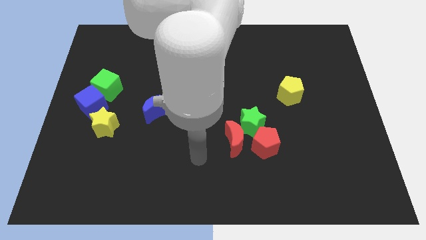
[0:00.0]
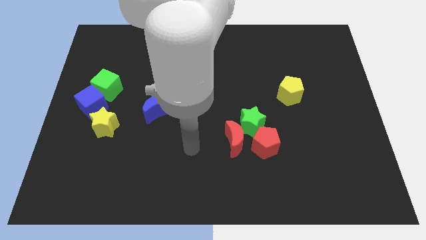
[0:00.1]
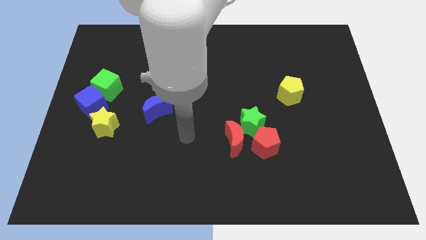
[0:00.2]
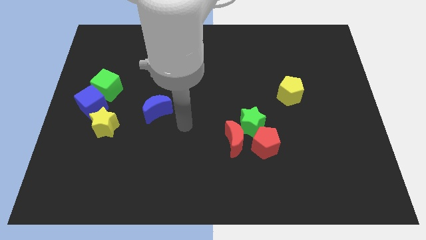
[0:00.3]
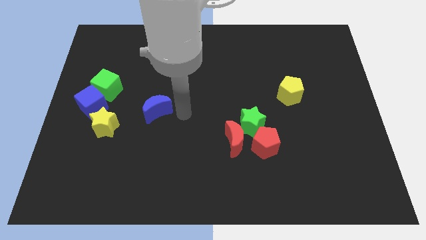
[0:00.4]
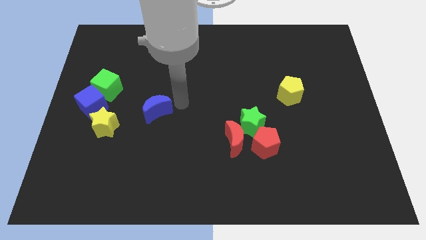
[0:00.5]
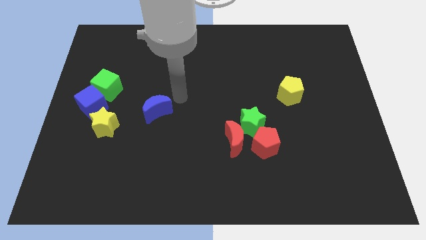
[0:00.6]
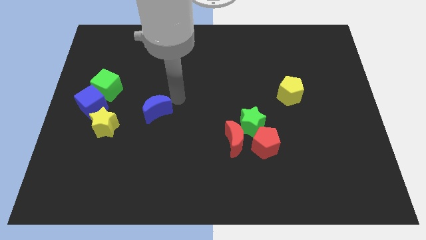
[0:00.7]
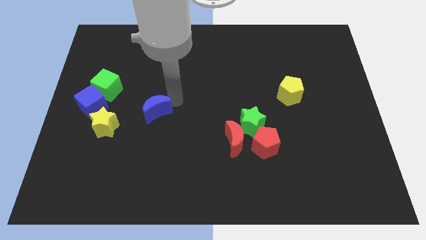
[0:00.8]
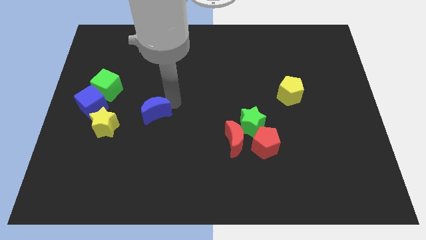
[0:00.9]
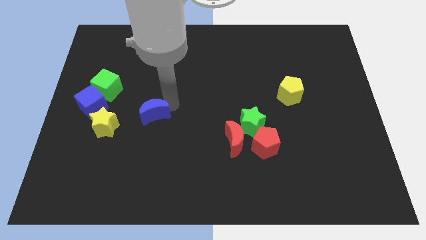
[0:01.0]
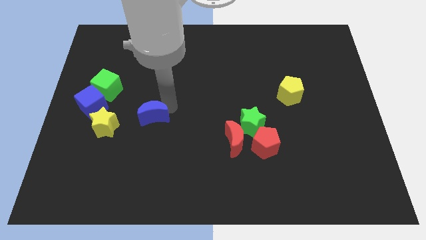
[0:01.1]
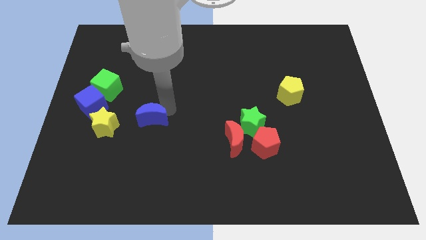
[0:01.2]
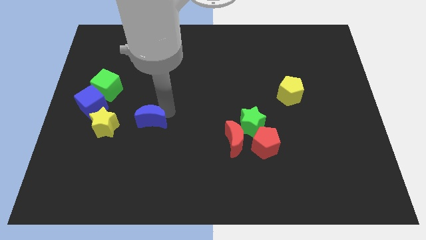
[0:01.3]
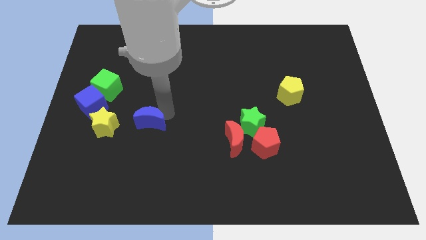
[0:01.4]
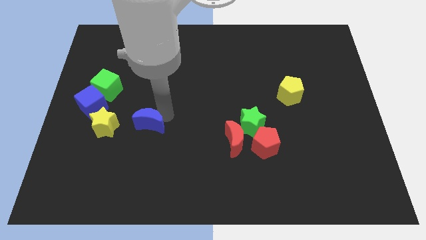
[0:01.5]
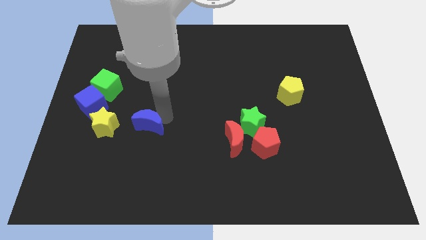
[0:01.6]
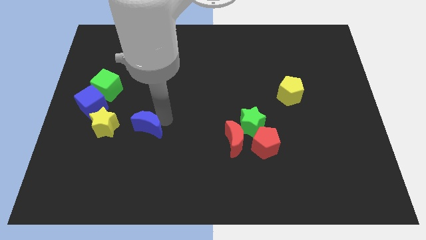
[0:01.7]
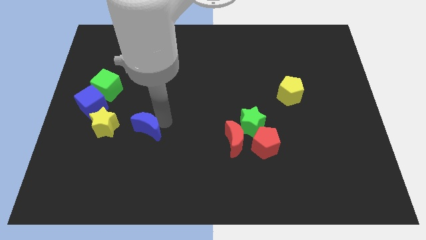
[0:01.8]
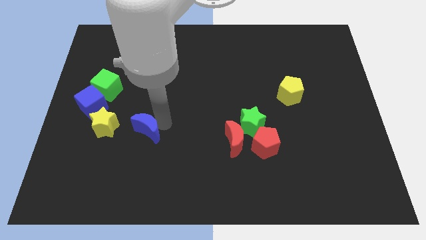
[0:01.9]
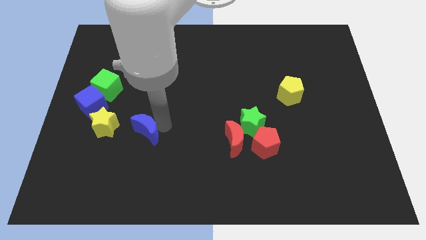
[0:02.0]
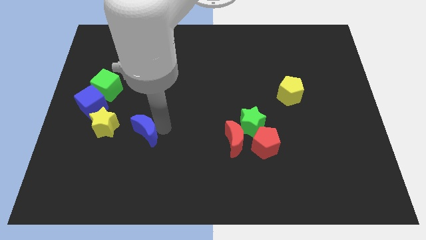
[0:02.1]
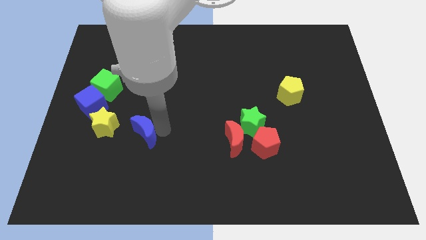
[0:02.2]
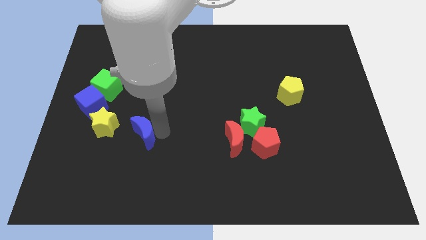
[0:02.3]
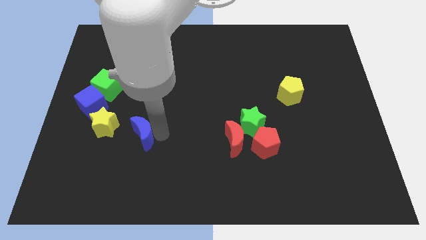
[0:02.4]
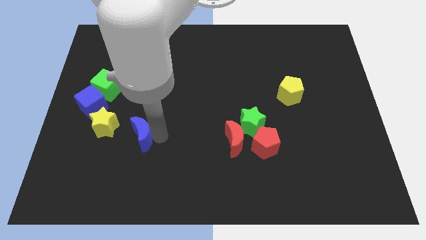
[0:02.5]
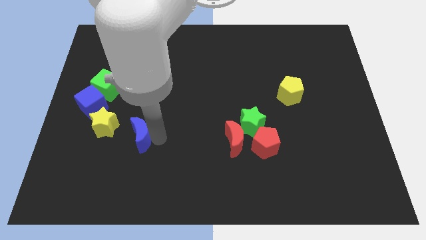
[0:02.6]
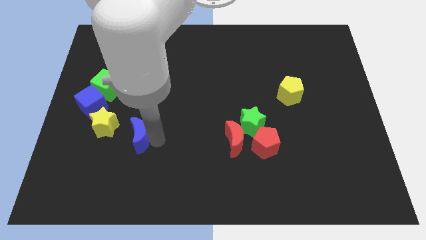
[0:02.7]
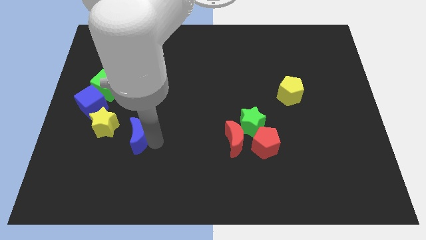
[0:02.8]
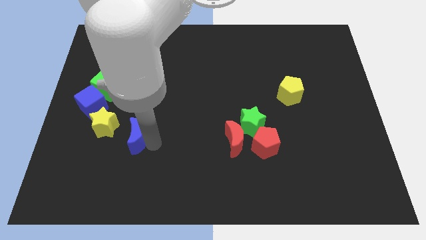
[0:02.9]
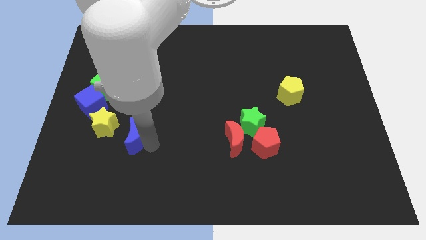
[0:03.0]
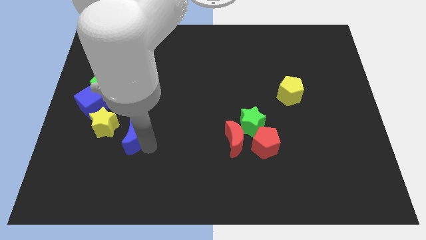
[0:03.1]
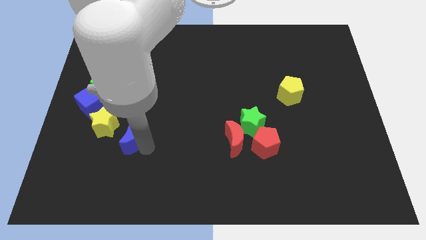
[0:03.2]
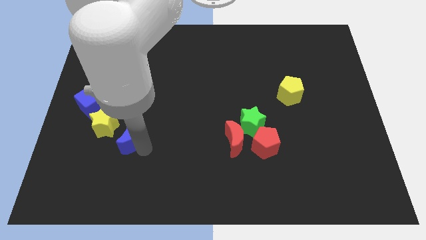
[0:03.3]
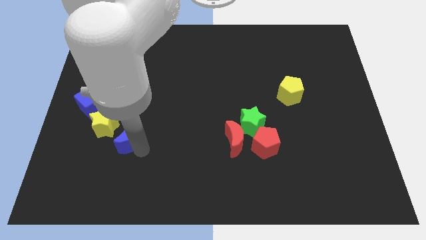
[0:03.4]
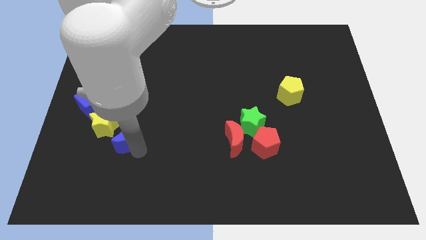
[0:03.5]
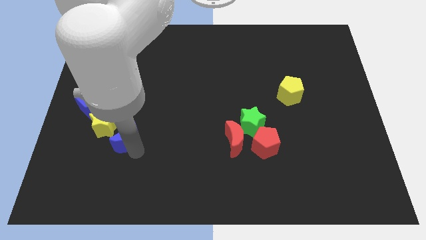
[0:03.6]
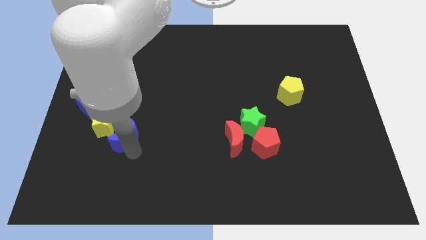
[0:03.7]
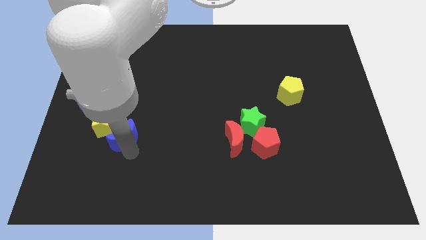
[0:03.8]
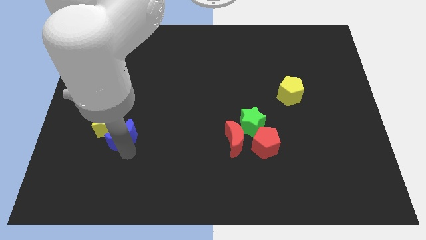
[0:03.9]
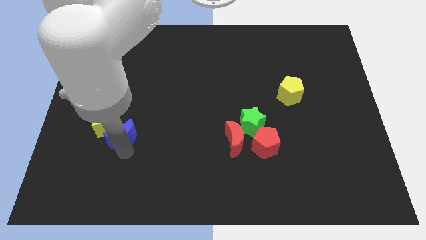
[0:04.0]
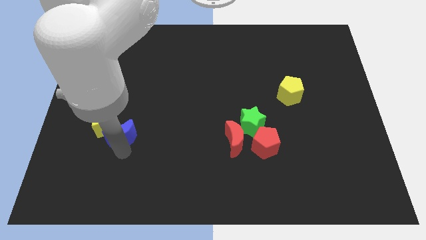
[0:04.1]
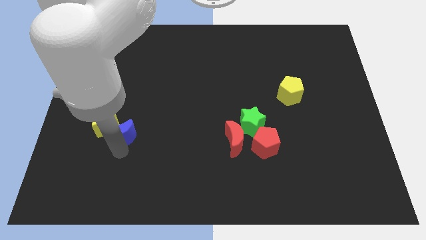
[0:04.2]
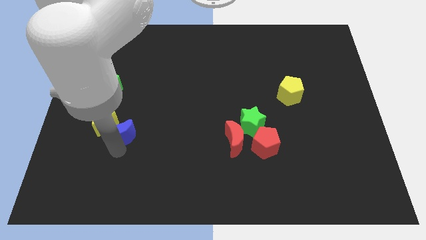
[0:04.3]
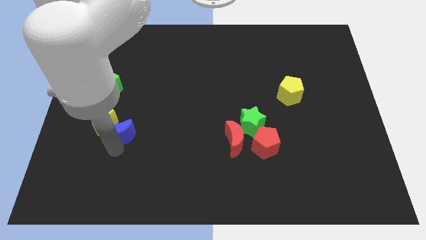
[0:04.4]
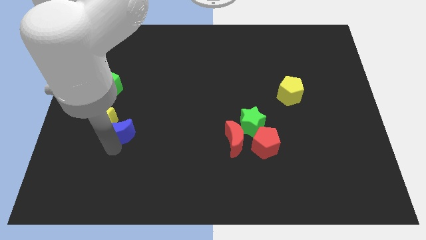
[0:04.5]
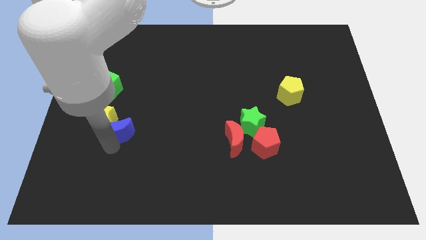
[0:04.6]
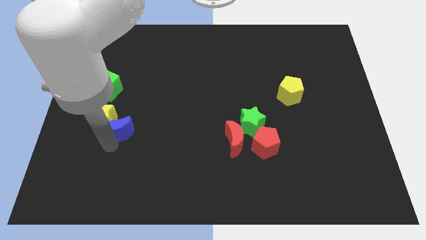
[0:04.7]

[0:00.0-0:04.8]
move the blue moon below the green cube

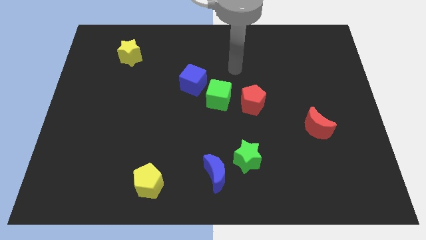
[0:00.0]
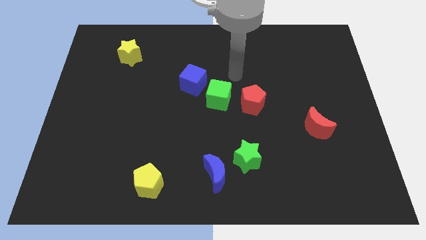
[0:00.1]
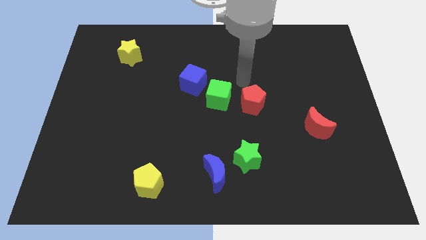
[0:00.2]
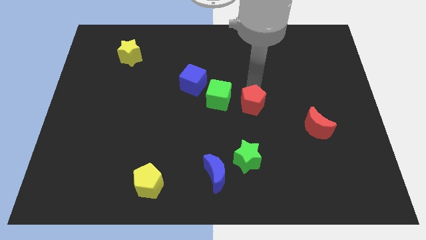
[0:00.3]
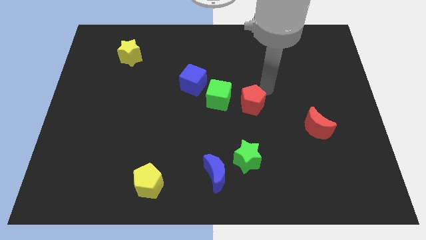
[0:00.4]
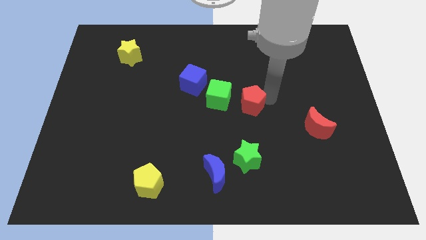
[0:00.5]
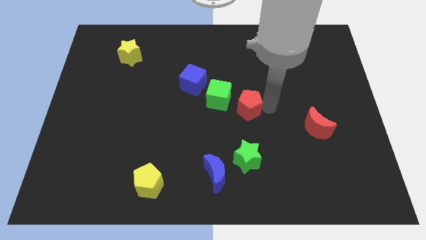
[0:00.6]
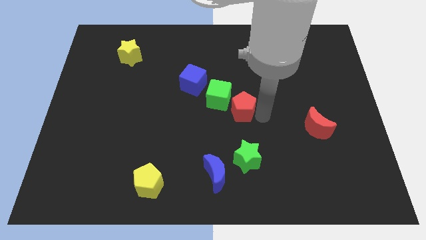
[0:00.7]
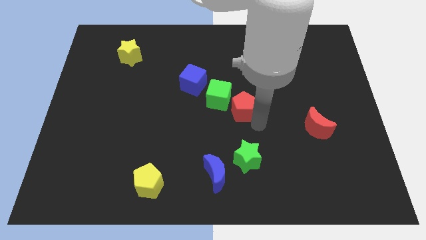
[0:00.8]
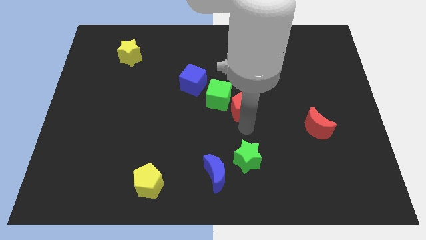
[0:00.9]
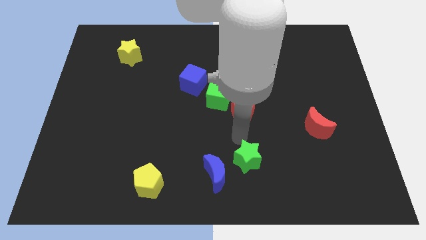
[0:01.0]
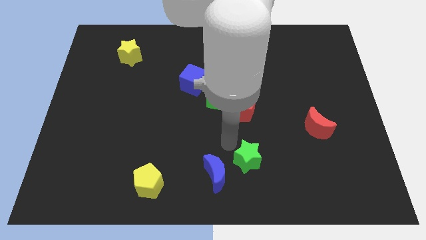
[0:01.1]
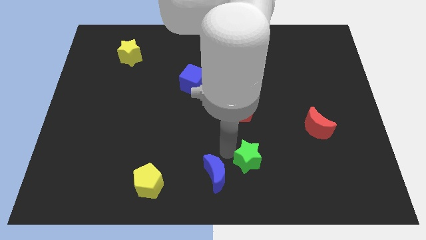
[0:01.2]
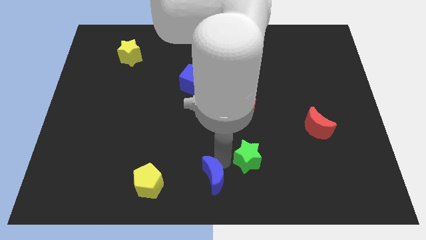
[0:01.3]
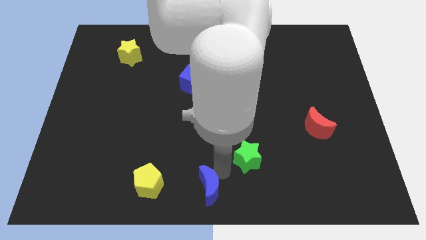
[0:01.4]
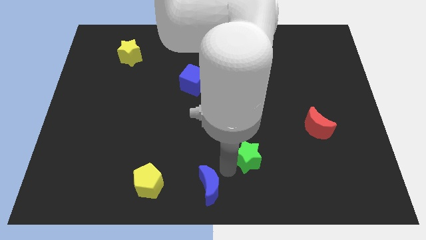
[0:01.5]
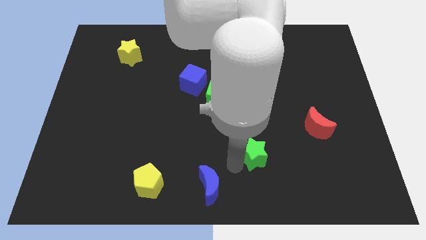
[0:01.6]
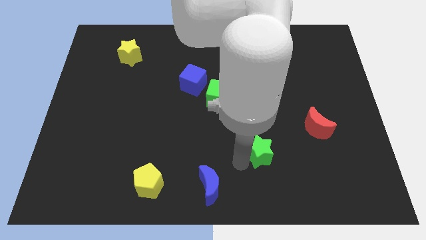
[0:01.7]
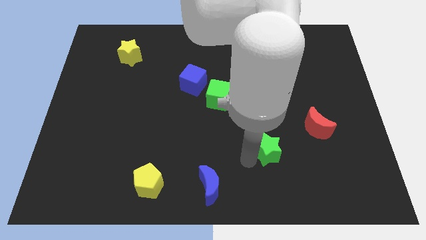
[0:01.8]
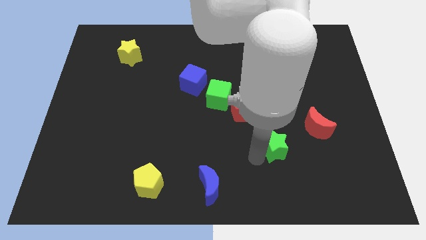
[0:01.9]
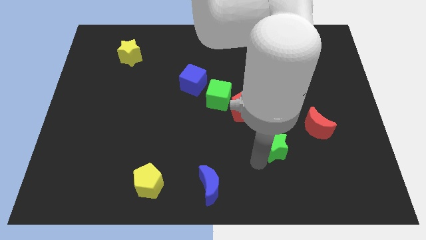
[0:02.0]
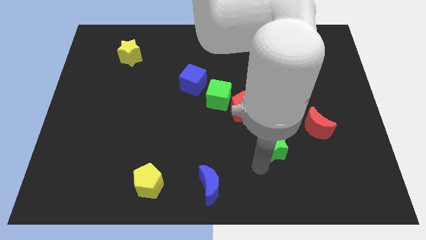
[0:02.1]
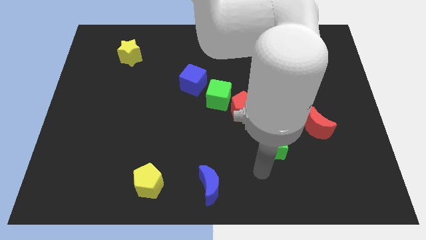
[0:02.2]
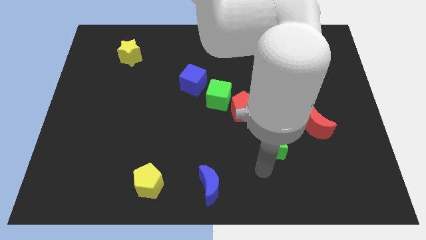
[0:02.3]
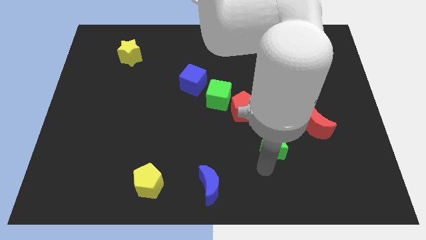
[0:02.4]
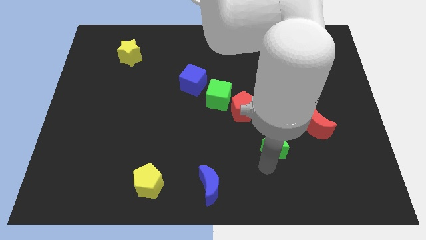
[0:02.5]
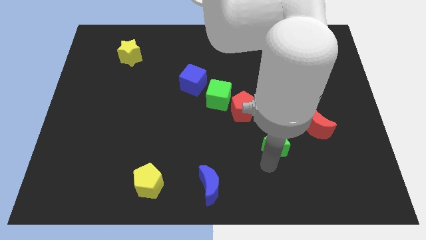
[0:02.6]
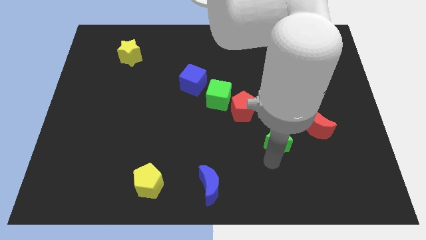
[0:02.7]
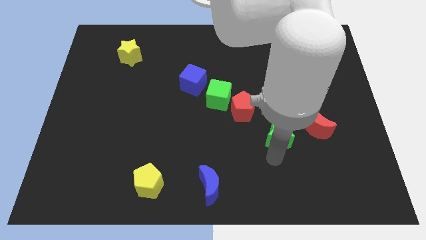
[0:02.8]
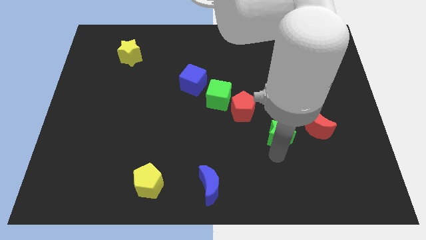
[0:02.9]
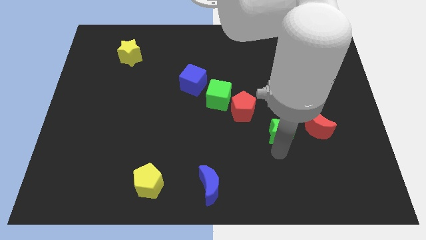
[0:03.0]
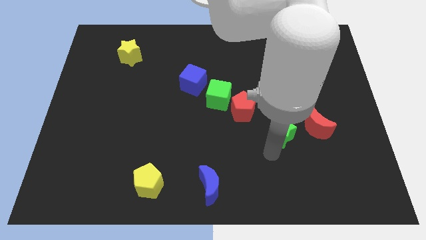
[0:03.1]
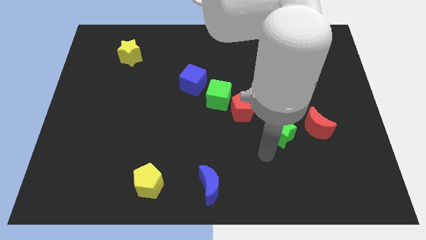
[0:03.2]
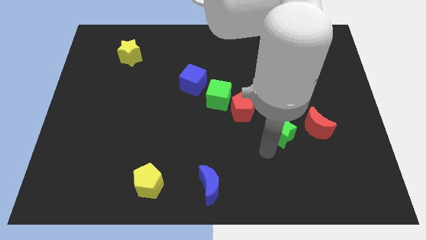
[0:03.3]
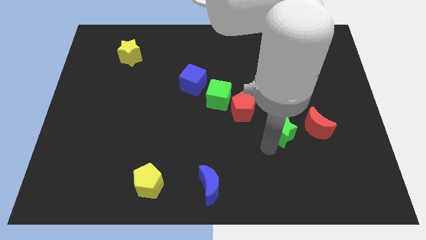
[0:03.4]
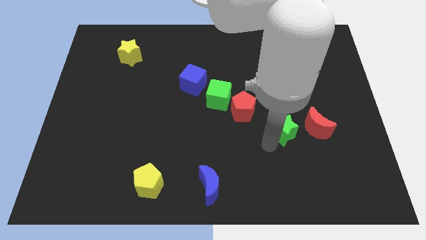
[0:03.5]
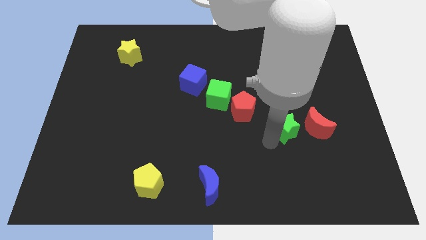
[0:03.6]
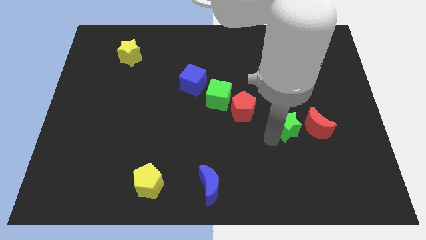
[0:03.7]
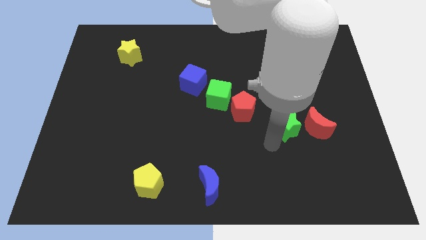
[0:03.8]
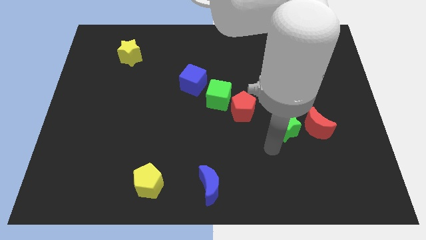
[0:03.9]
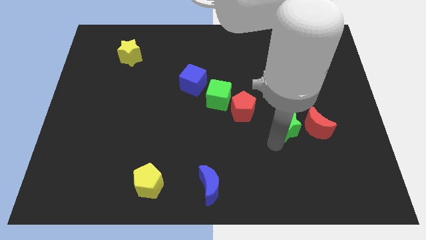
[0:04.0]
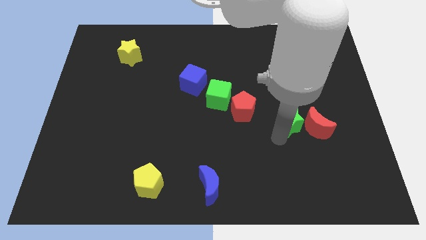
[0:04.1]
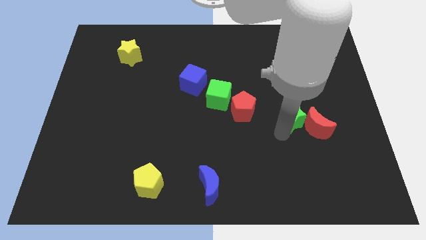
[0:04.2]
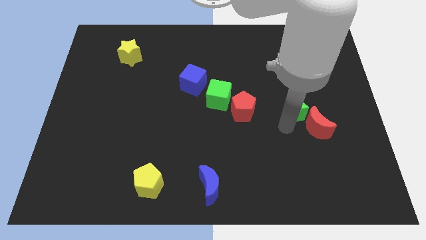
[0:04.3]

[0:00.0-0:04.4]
move the green star above the red moon
